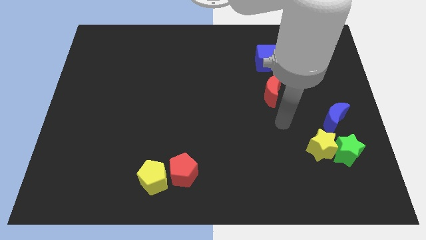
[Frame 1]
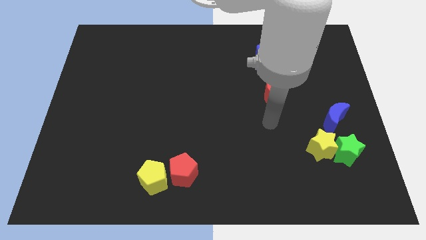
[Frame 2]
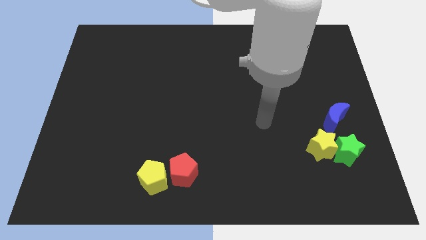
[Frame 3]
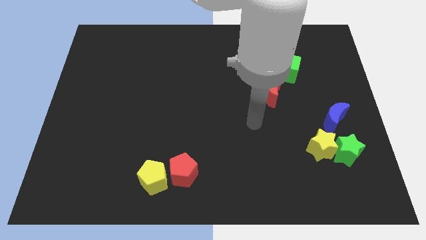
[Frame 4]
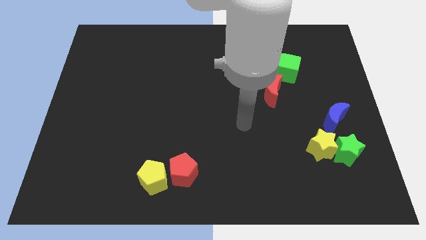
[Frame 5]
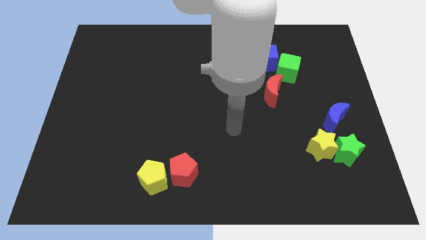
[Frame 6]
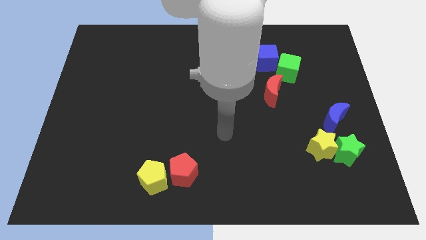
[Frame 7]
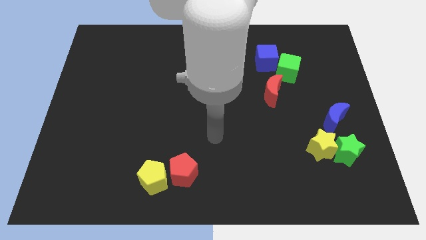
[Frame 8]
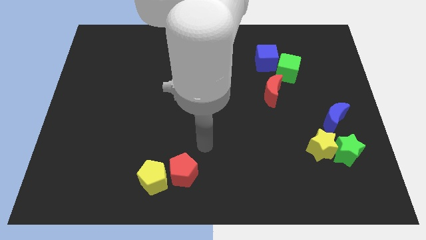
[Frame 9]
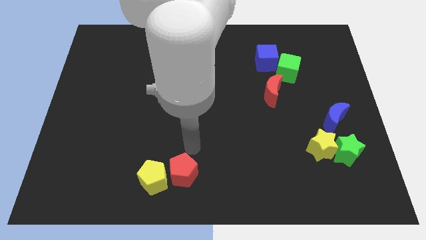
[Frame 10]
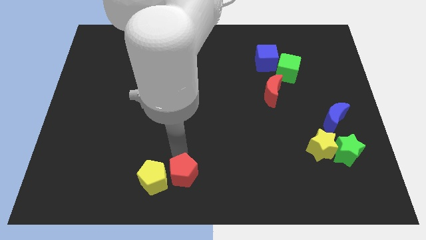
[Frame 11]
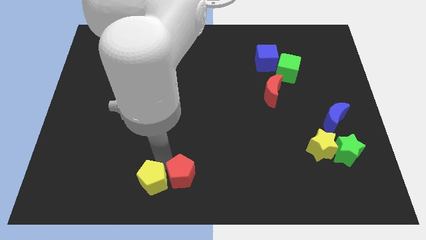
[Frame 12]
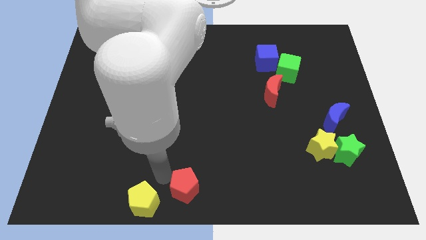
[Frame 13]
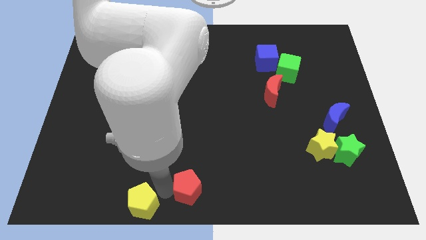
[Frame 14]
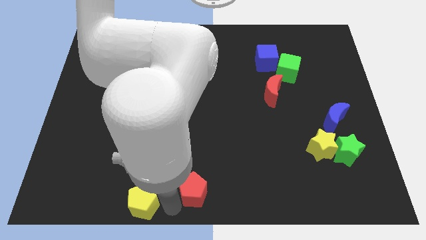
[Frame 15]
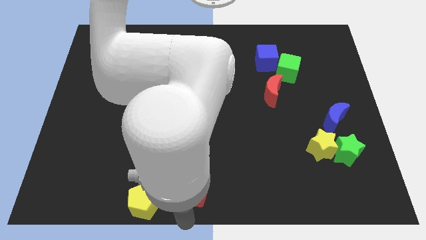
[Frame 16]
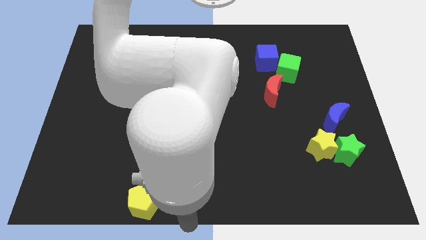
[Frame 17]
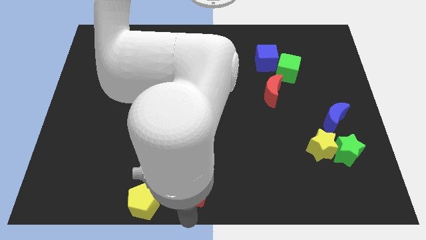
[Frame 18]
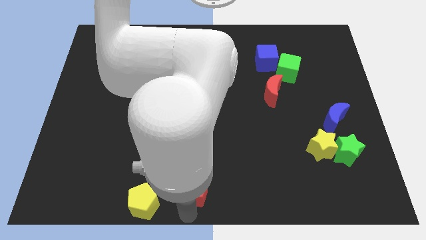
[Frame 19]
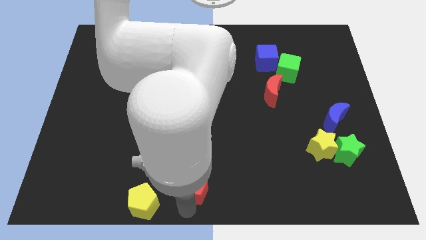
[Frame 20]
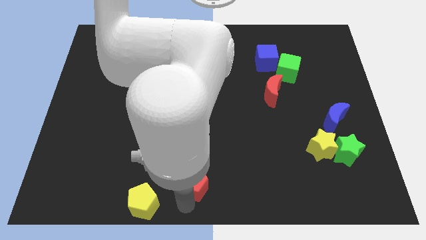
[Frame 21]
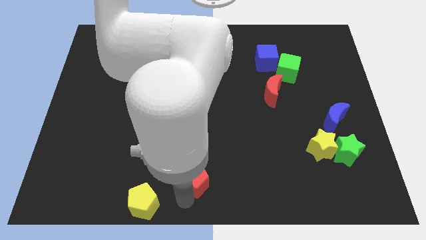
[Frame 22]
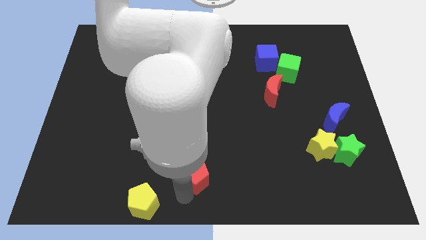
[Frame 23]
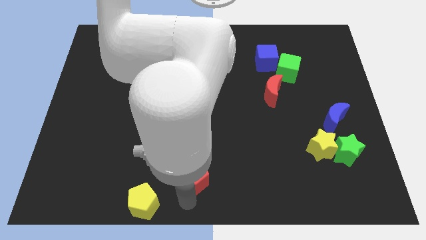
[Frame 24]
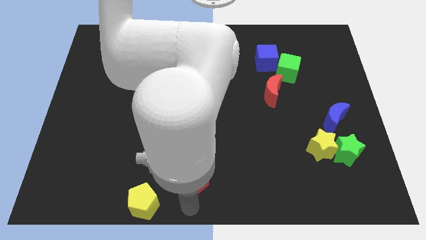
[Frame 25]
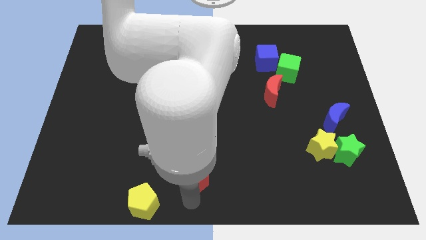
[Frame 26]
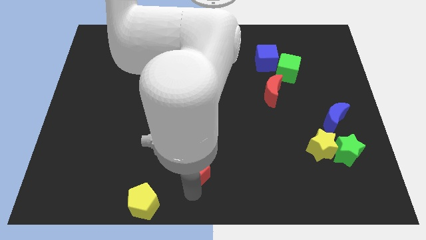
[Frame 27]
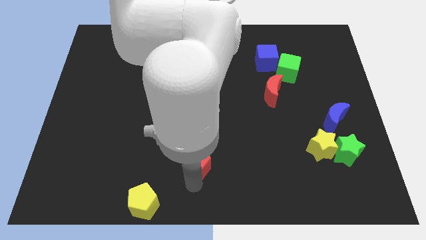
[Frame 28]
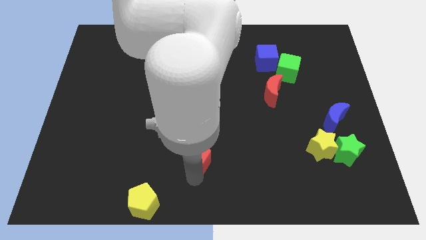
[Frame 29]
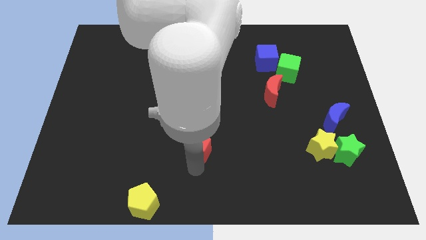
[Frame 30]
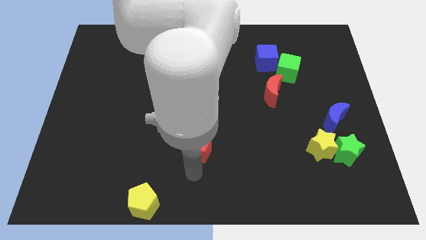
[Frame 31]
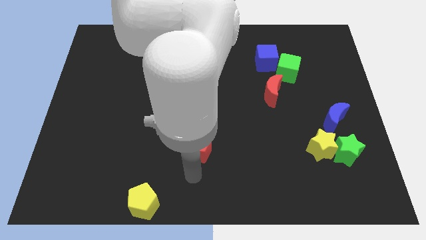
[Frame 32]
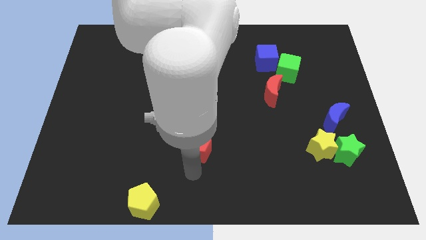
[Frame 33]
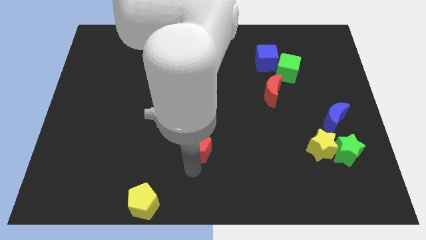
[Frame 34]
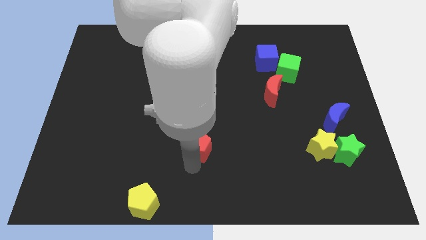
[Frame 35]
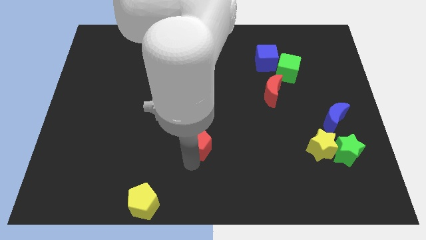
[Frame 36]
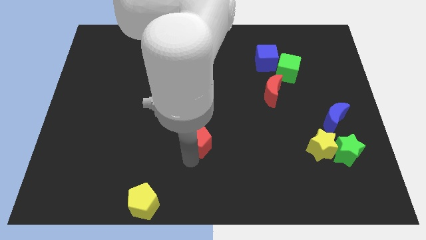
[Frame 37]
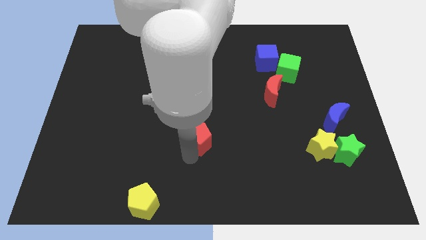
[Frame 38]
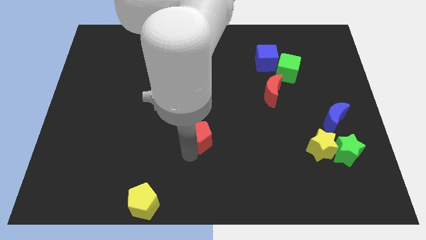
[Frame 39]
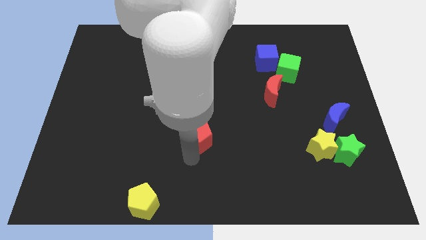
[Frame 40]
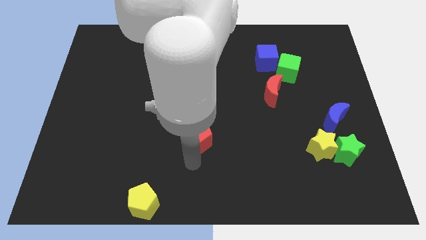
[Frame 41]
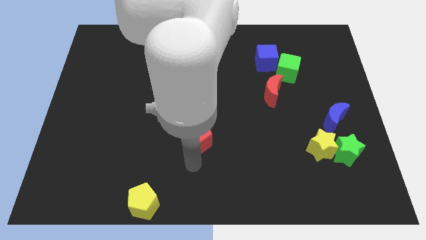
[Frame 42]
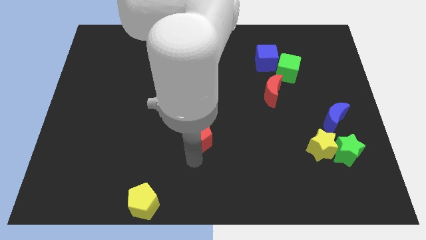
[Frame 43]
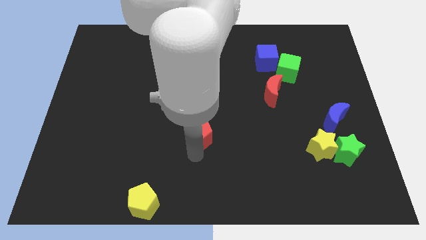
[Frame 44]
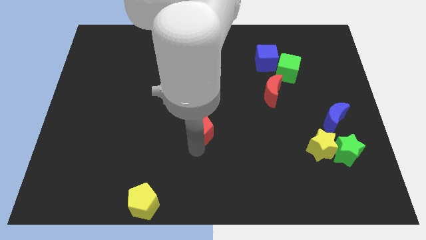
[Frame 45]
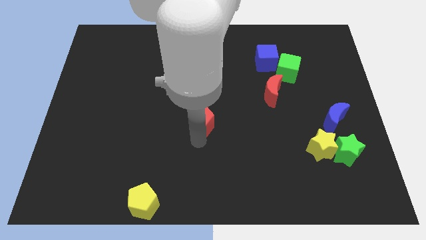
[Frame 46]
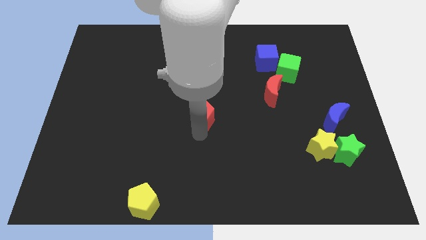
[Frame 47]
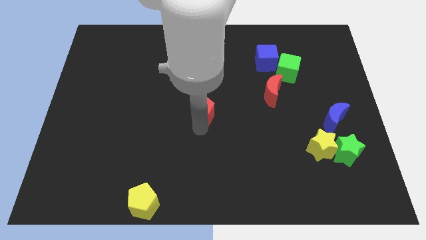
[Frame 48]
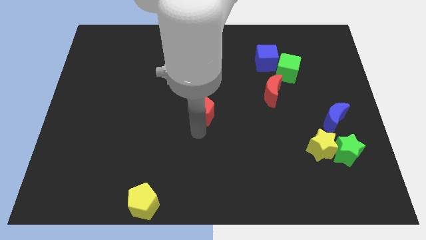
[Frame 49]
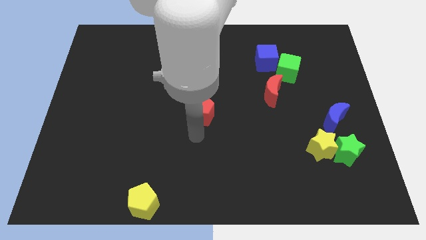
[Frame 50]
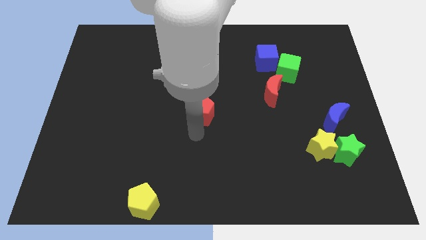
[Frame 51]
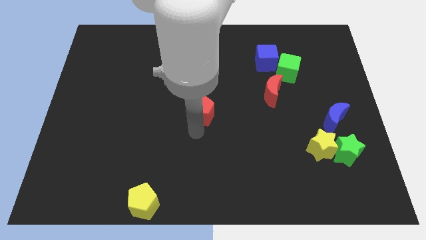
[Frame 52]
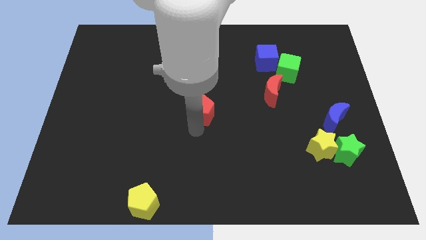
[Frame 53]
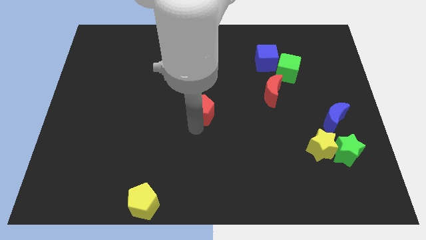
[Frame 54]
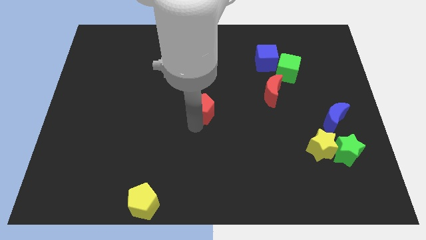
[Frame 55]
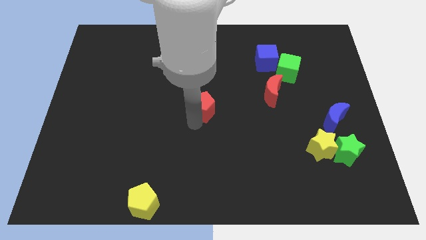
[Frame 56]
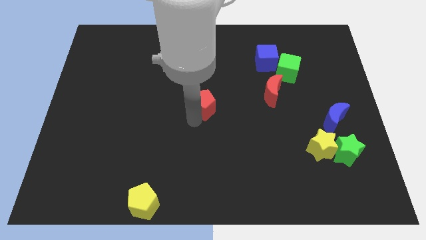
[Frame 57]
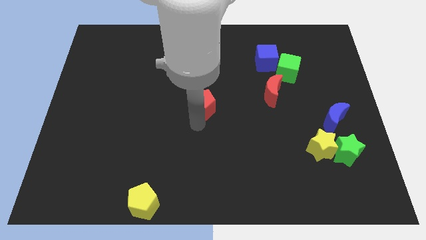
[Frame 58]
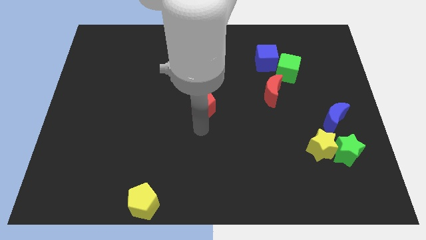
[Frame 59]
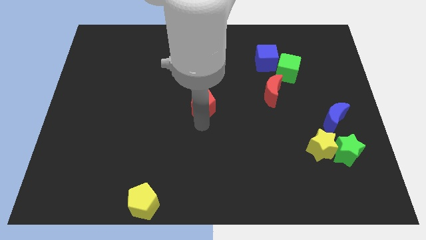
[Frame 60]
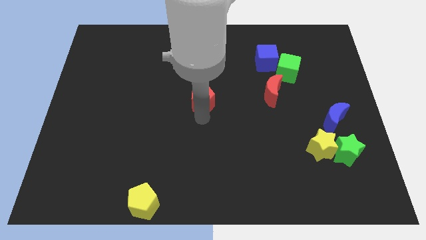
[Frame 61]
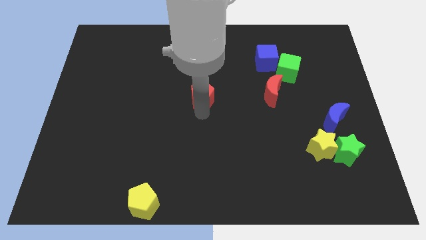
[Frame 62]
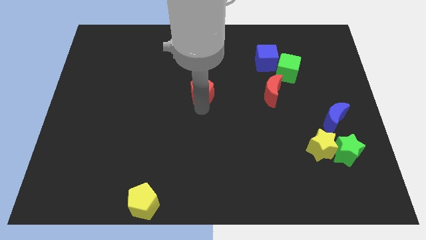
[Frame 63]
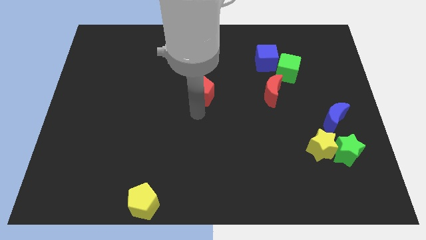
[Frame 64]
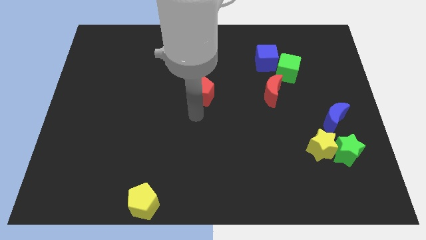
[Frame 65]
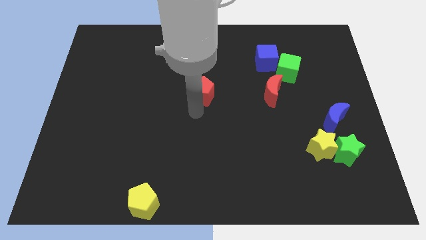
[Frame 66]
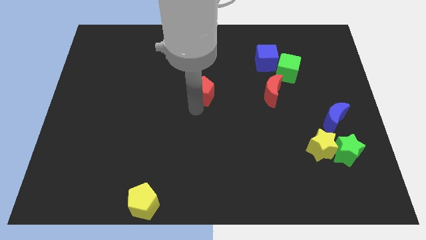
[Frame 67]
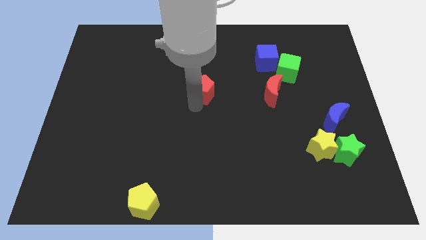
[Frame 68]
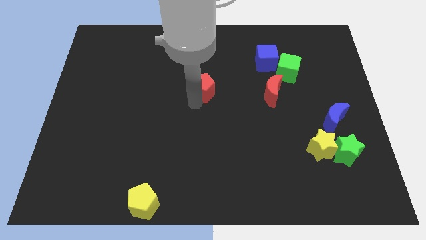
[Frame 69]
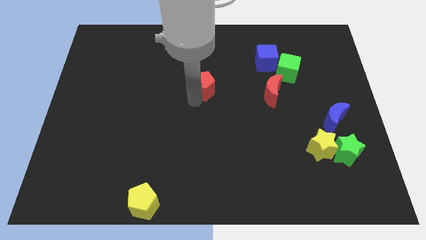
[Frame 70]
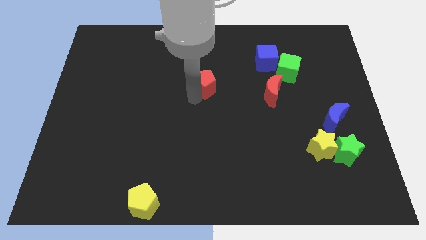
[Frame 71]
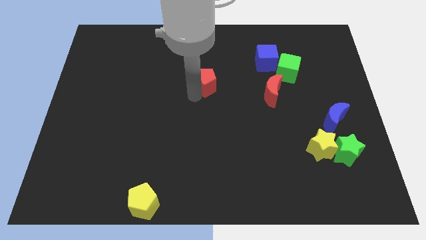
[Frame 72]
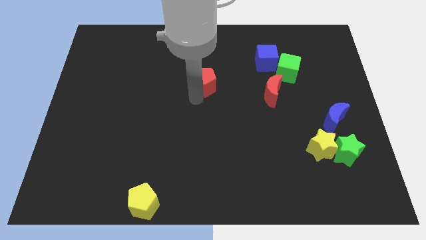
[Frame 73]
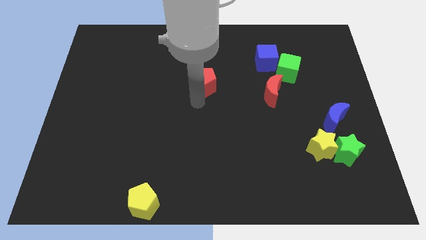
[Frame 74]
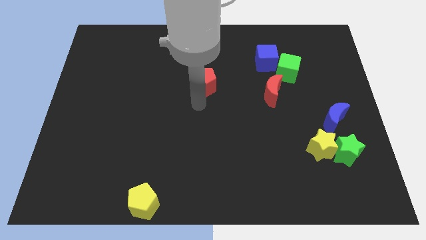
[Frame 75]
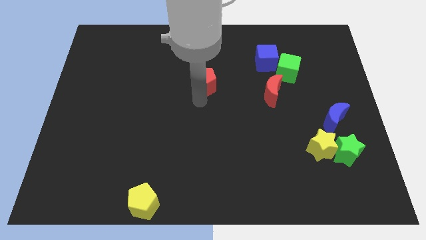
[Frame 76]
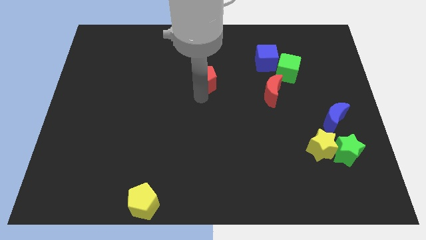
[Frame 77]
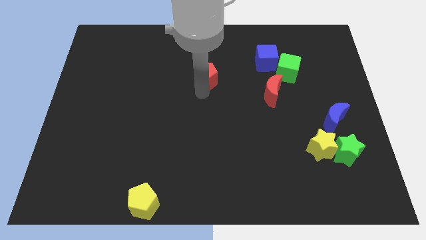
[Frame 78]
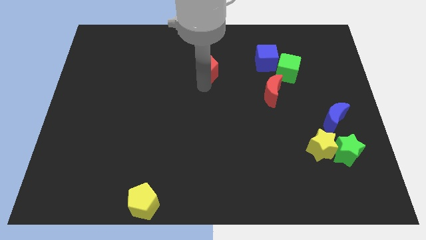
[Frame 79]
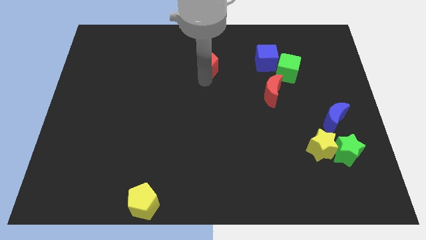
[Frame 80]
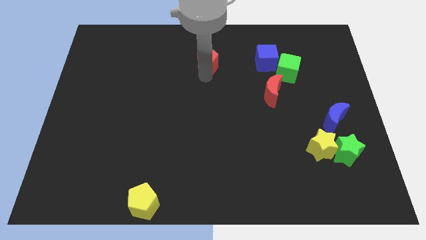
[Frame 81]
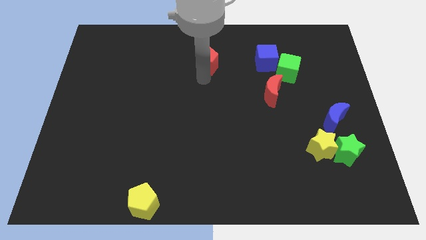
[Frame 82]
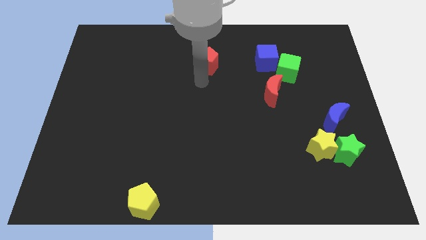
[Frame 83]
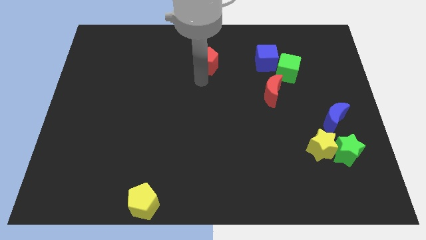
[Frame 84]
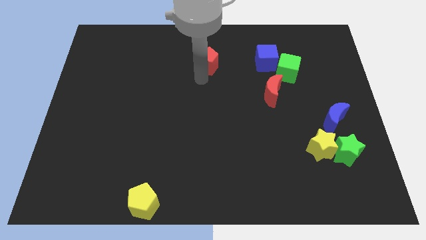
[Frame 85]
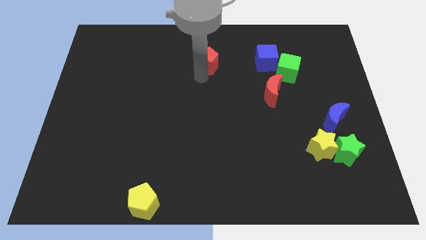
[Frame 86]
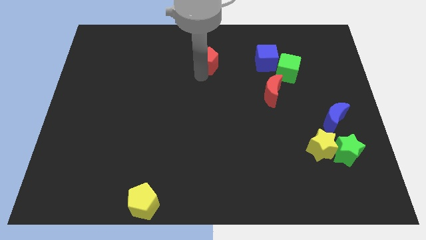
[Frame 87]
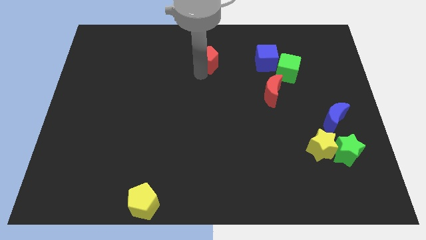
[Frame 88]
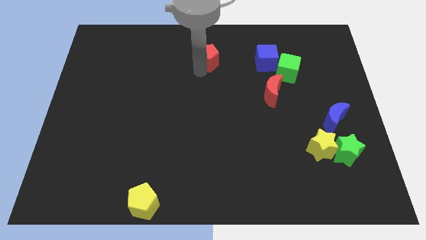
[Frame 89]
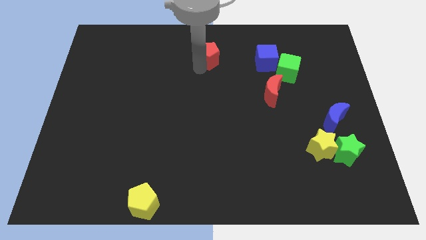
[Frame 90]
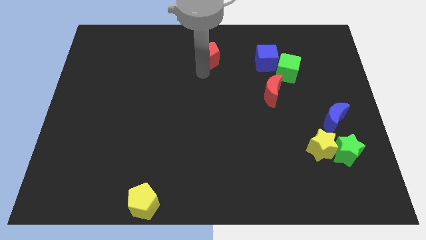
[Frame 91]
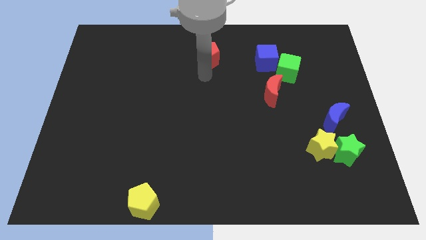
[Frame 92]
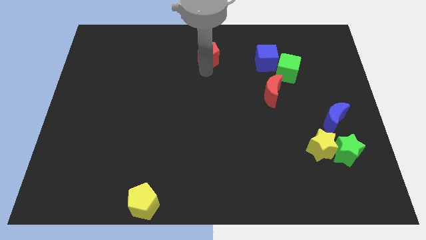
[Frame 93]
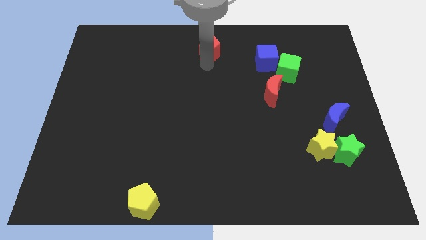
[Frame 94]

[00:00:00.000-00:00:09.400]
put the red pentagon to the top
